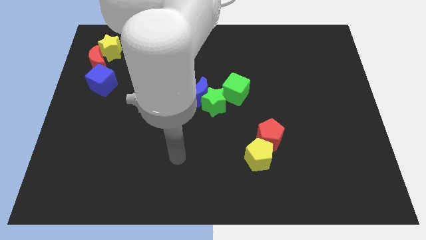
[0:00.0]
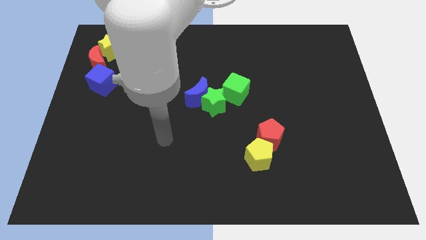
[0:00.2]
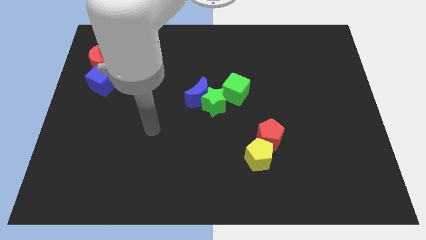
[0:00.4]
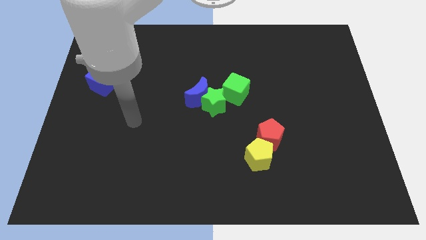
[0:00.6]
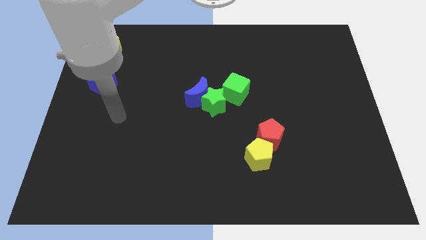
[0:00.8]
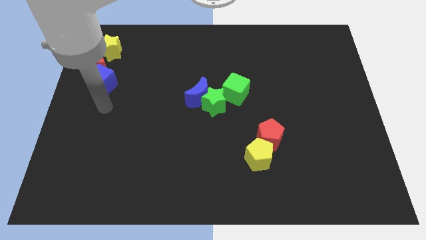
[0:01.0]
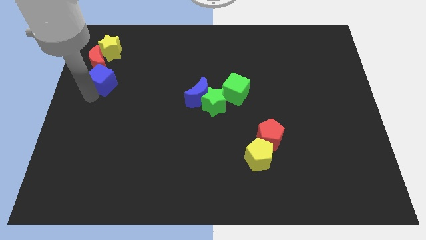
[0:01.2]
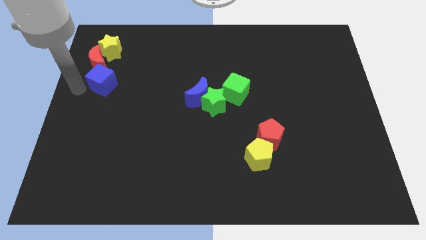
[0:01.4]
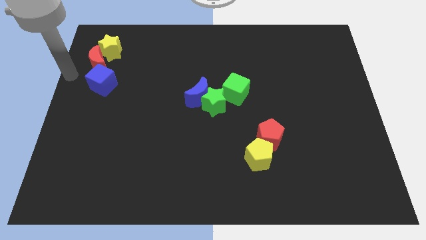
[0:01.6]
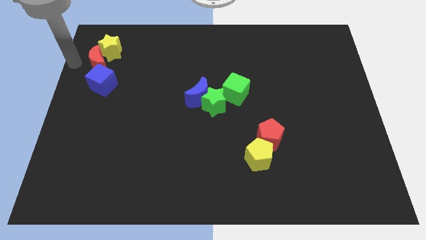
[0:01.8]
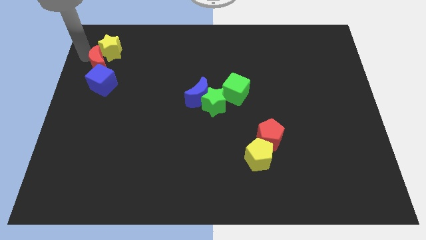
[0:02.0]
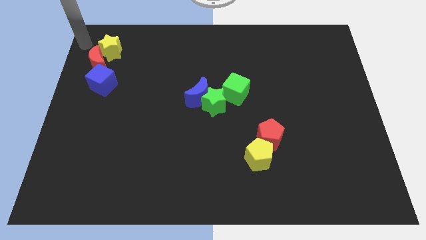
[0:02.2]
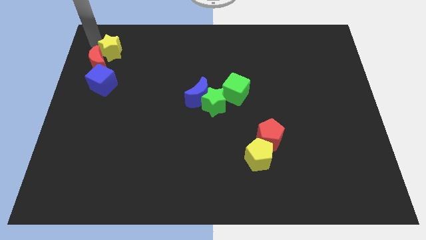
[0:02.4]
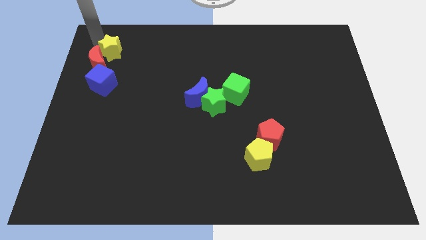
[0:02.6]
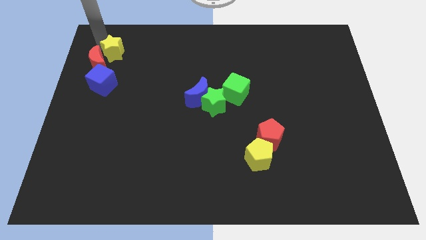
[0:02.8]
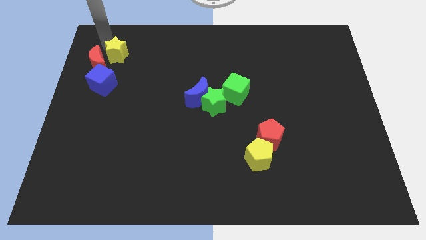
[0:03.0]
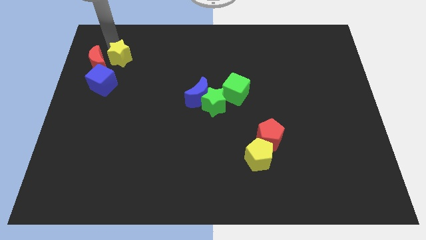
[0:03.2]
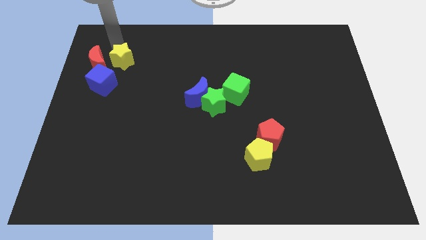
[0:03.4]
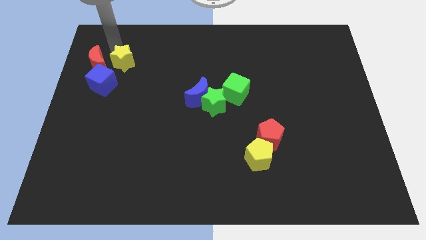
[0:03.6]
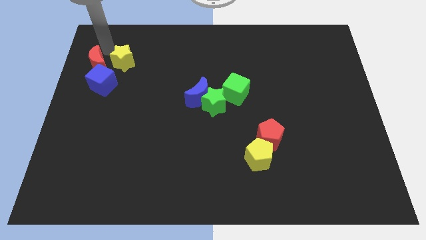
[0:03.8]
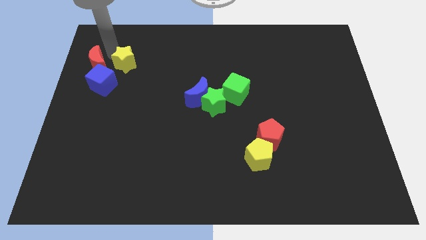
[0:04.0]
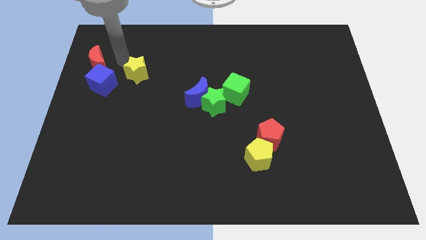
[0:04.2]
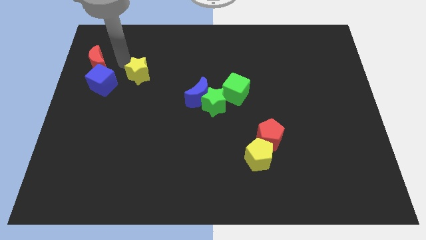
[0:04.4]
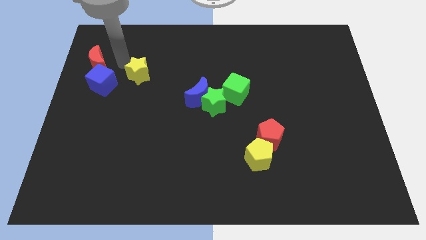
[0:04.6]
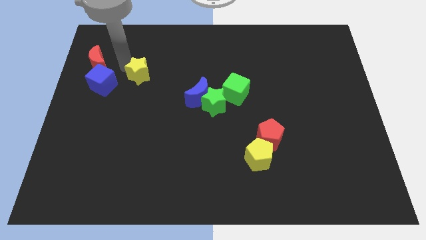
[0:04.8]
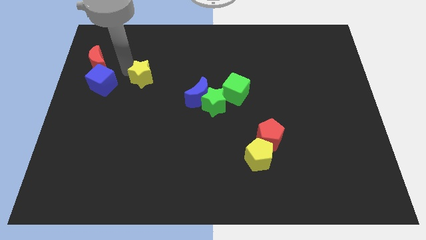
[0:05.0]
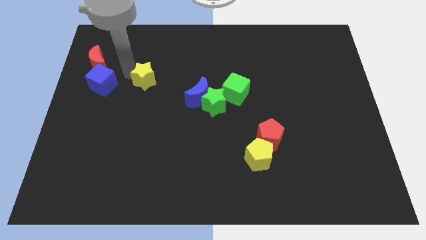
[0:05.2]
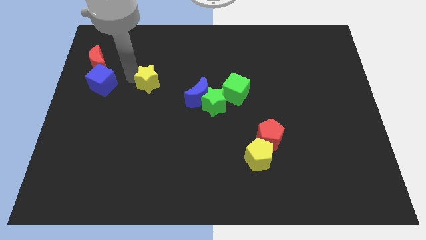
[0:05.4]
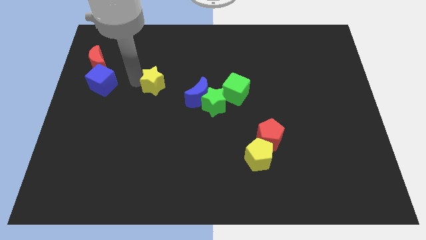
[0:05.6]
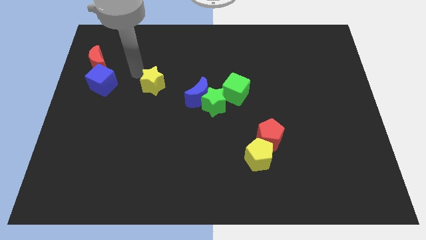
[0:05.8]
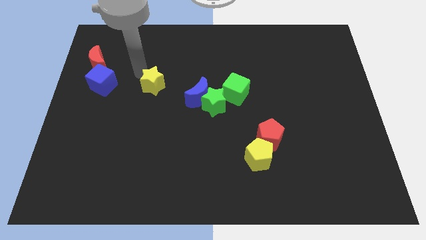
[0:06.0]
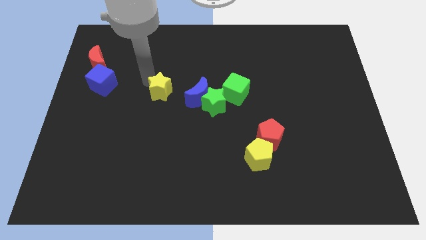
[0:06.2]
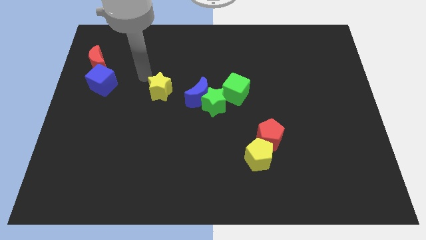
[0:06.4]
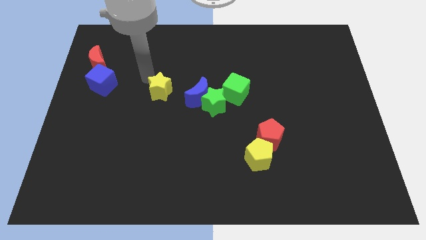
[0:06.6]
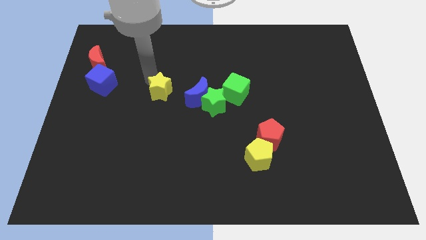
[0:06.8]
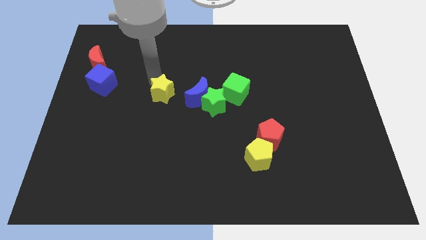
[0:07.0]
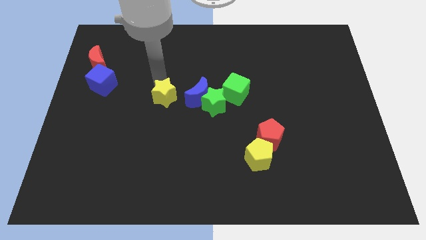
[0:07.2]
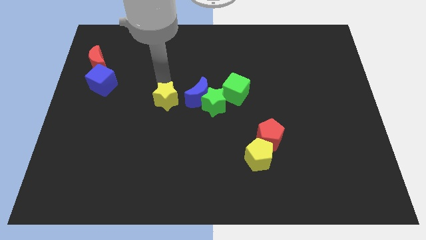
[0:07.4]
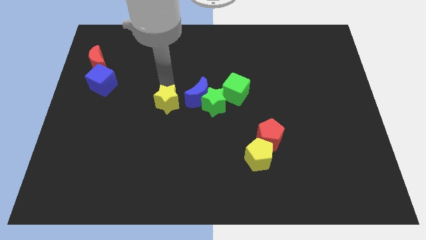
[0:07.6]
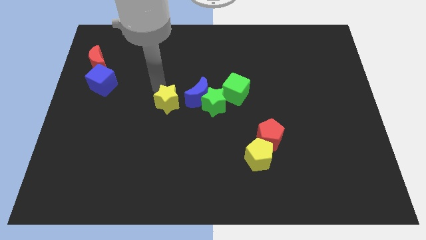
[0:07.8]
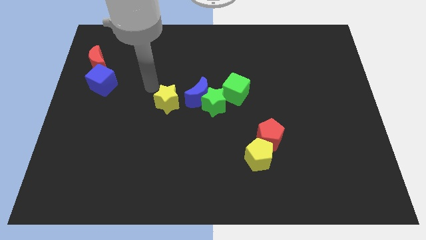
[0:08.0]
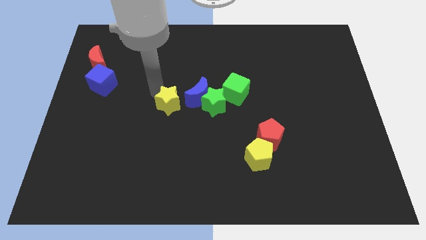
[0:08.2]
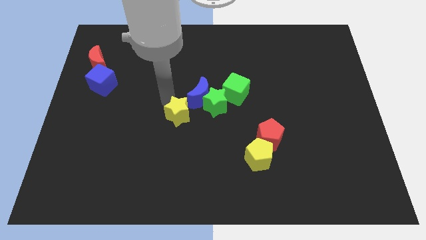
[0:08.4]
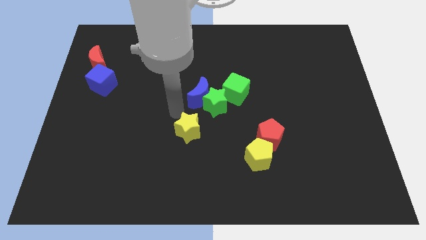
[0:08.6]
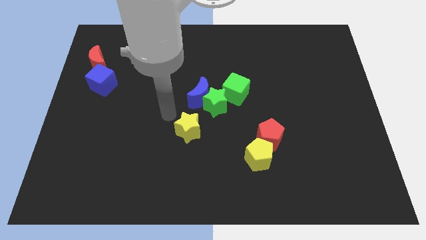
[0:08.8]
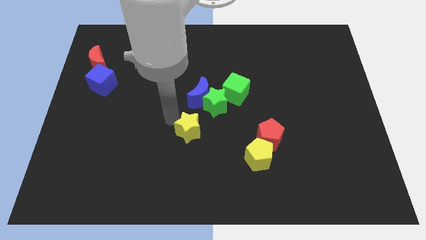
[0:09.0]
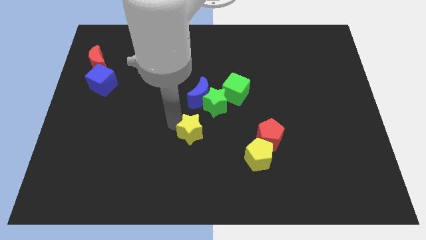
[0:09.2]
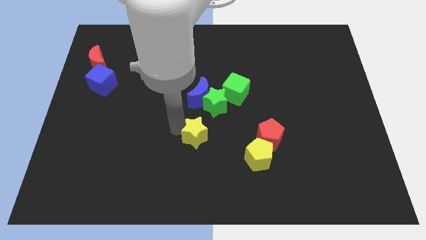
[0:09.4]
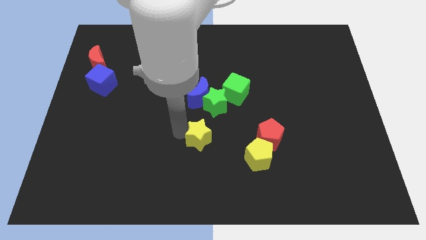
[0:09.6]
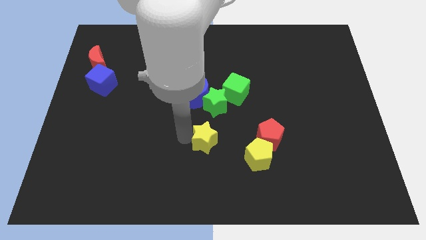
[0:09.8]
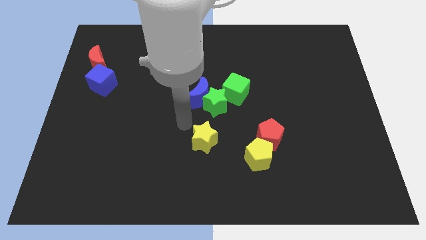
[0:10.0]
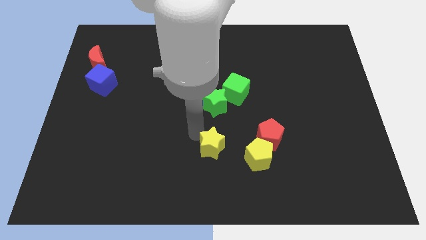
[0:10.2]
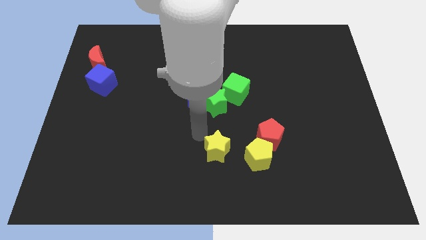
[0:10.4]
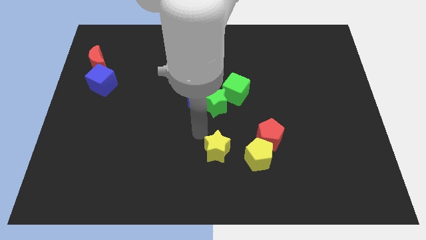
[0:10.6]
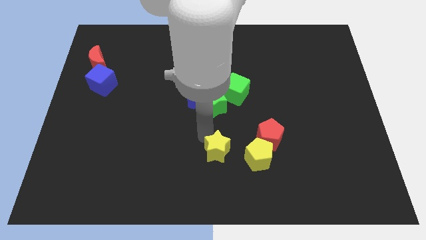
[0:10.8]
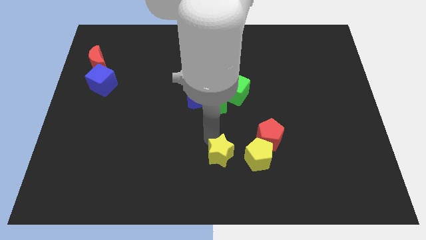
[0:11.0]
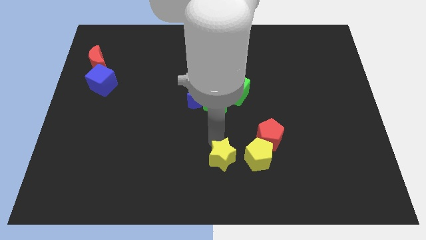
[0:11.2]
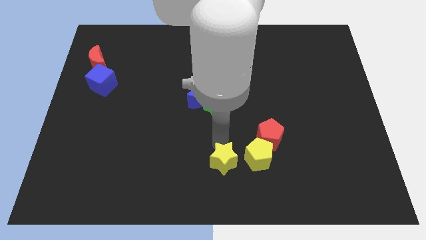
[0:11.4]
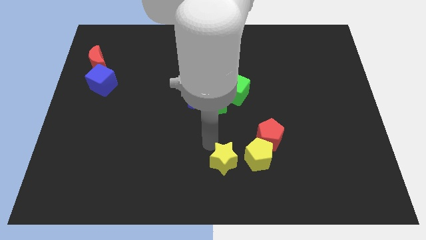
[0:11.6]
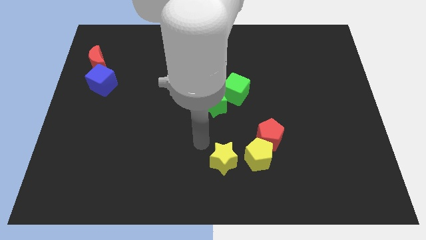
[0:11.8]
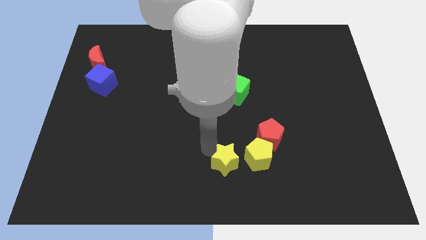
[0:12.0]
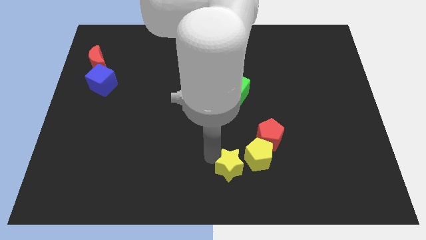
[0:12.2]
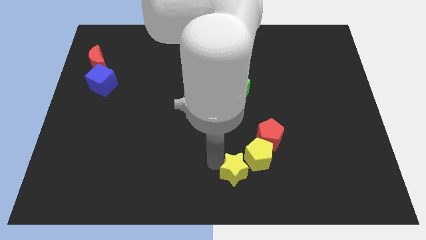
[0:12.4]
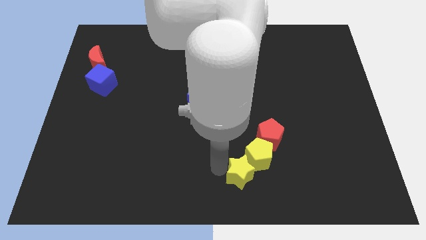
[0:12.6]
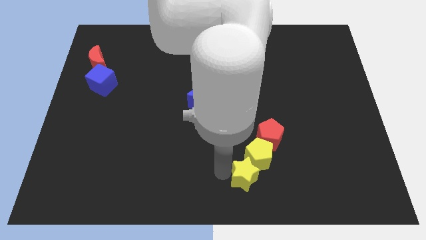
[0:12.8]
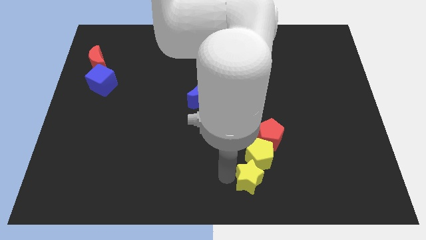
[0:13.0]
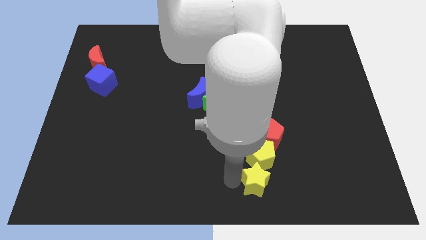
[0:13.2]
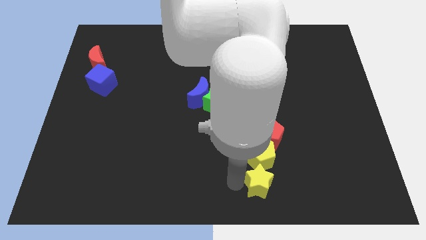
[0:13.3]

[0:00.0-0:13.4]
slide the yellow star to the bottom right of the yellow pentagon
